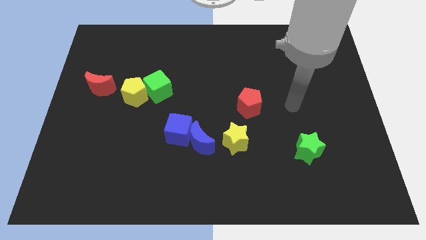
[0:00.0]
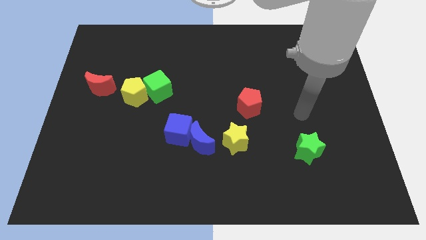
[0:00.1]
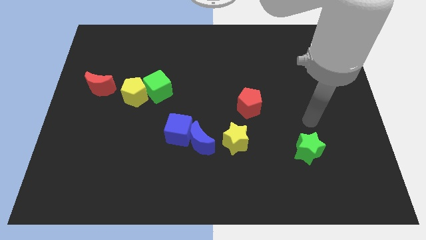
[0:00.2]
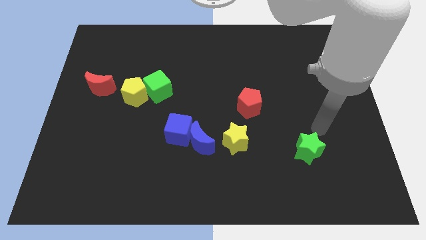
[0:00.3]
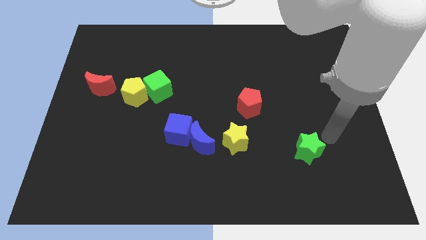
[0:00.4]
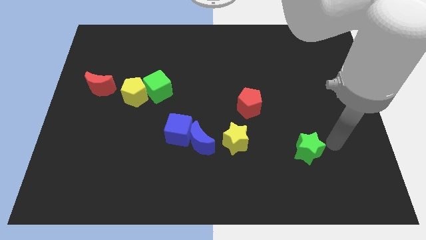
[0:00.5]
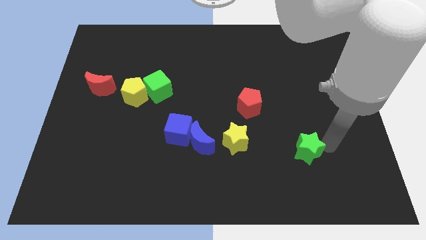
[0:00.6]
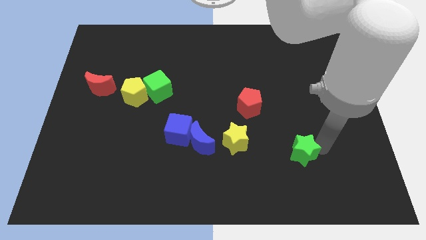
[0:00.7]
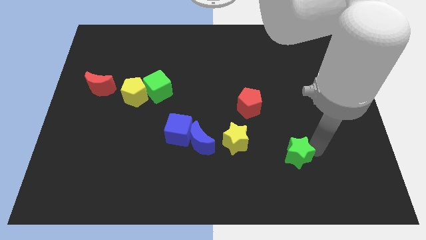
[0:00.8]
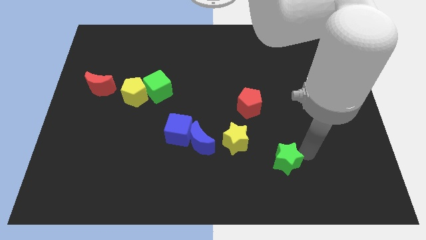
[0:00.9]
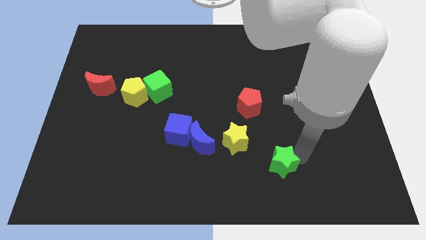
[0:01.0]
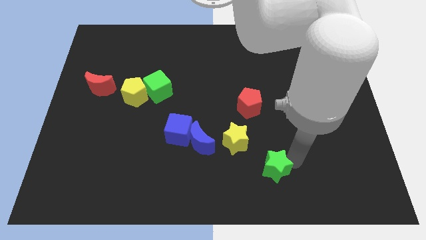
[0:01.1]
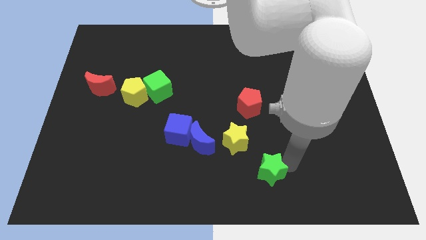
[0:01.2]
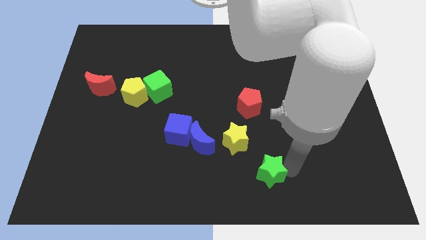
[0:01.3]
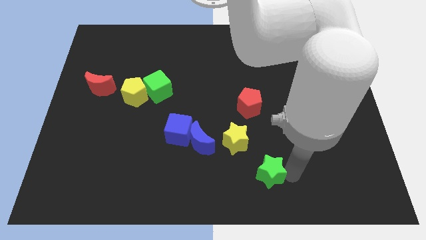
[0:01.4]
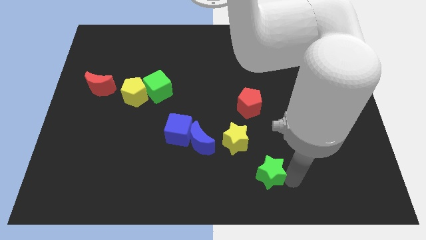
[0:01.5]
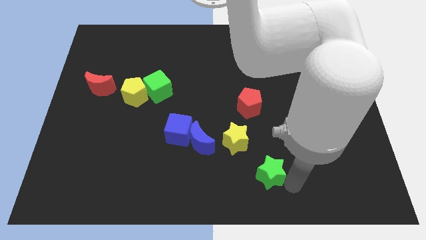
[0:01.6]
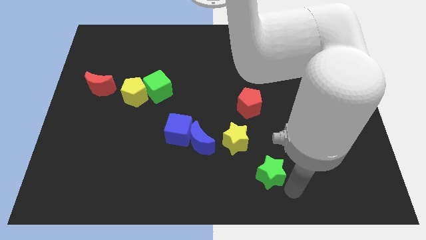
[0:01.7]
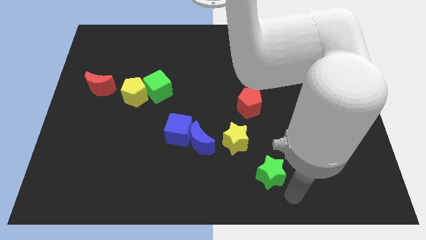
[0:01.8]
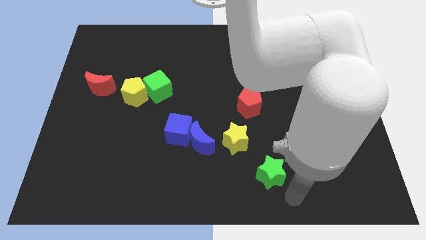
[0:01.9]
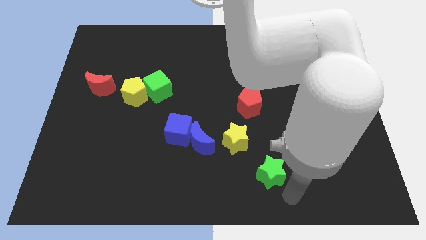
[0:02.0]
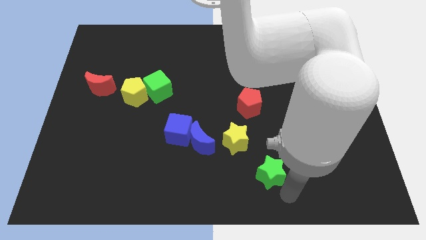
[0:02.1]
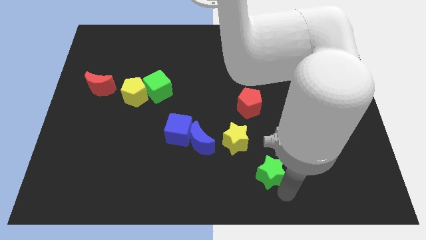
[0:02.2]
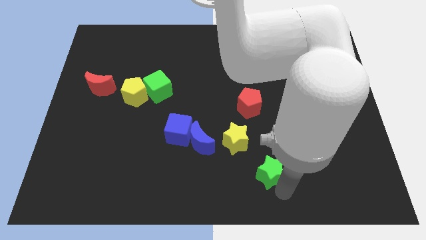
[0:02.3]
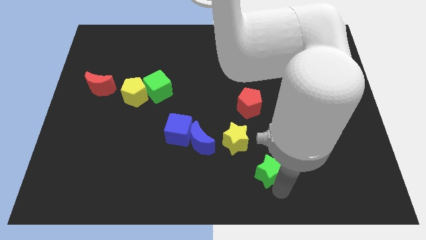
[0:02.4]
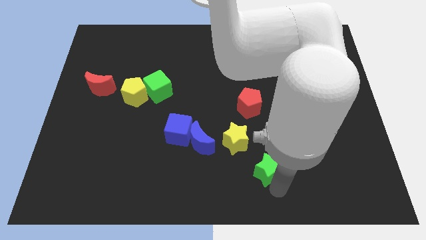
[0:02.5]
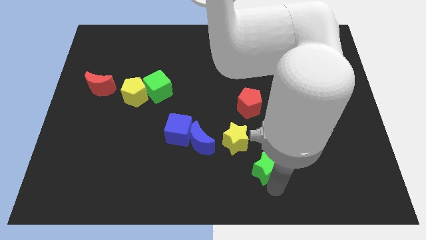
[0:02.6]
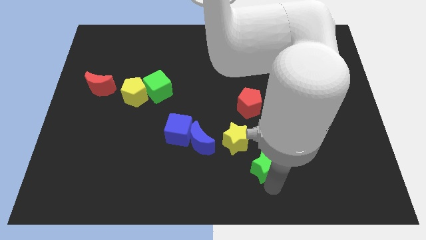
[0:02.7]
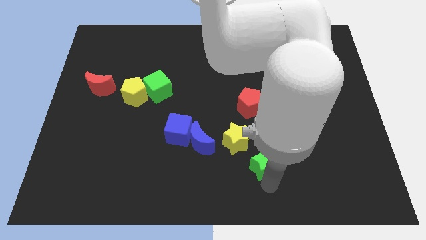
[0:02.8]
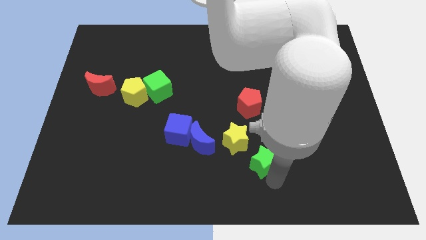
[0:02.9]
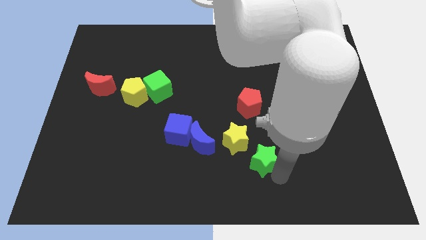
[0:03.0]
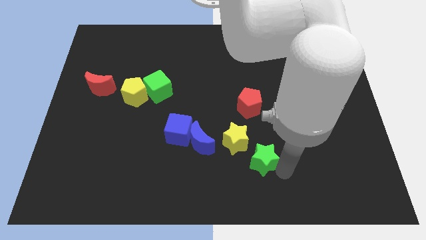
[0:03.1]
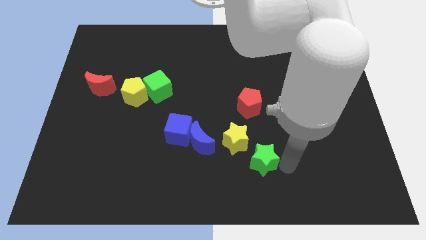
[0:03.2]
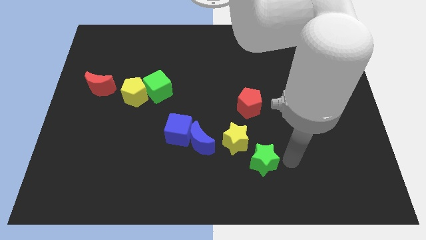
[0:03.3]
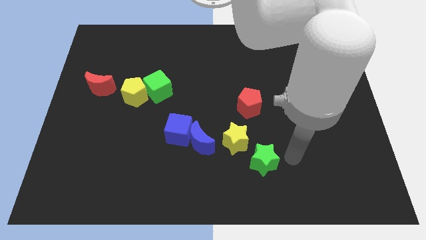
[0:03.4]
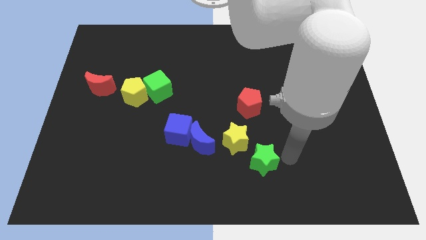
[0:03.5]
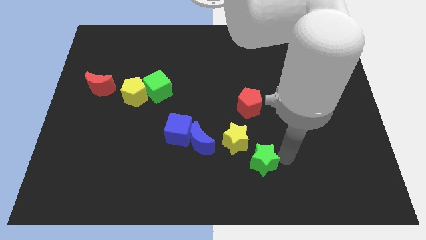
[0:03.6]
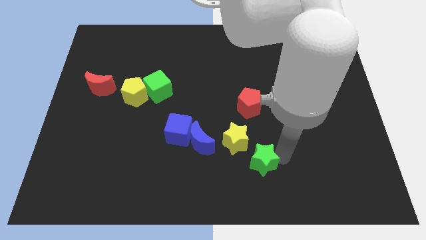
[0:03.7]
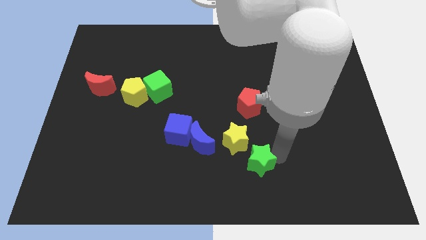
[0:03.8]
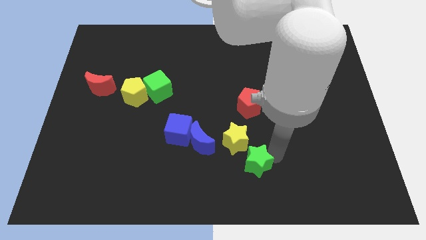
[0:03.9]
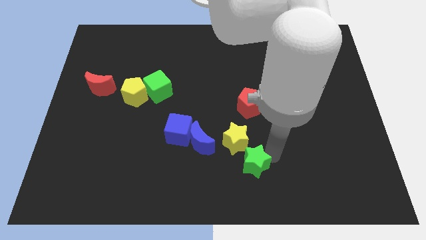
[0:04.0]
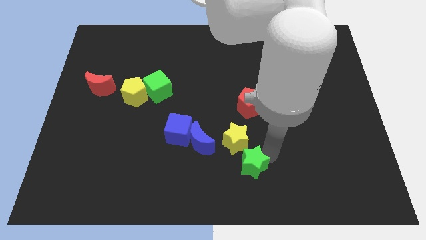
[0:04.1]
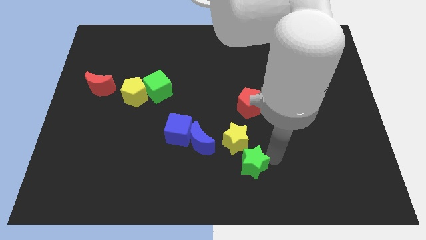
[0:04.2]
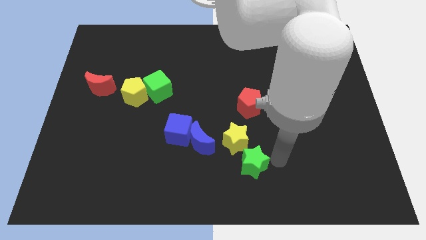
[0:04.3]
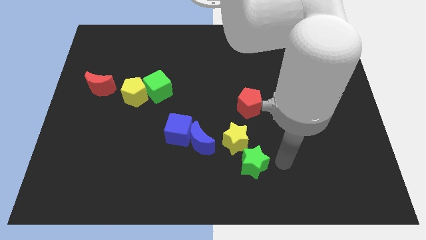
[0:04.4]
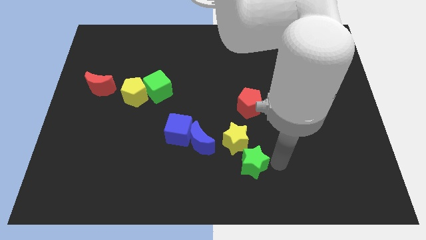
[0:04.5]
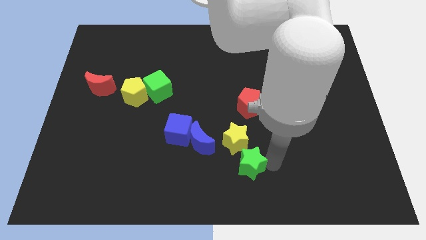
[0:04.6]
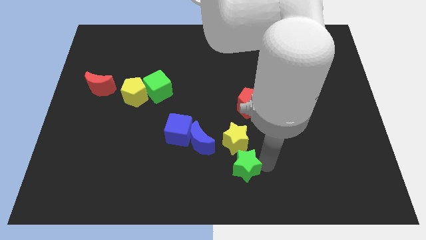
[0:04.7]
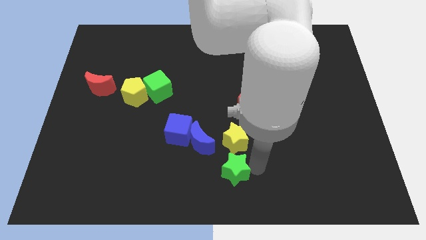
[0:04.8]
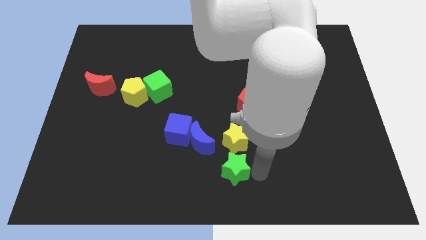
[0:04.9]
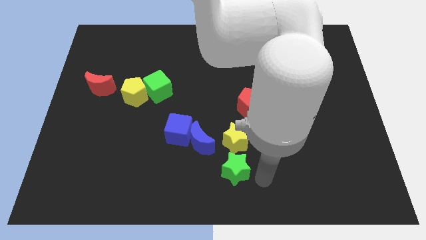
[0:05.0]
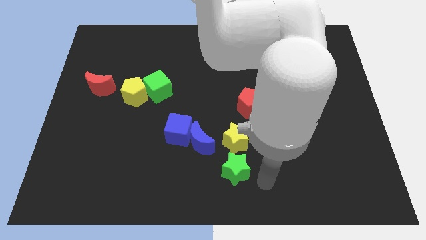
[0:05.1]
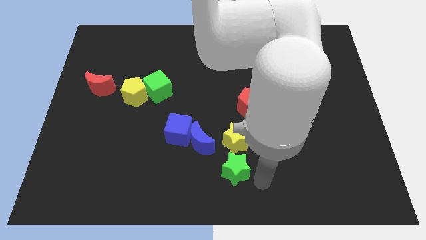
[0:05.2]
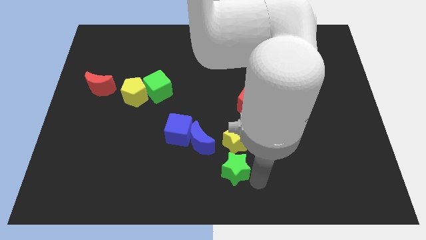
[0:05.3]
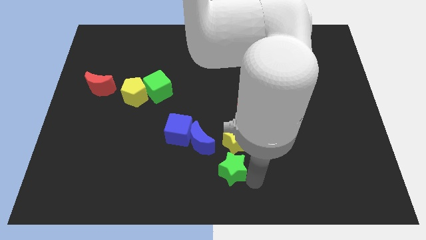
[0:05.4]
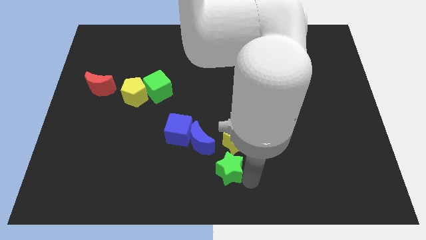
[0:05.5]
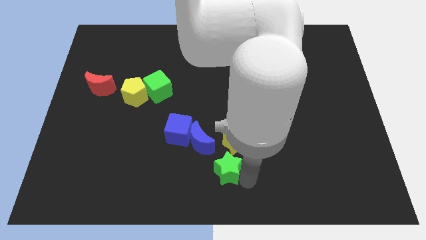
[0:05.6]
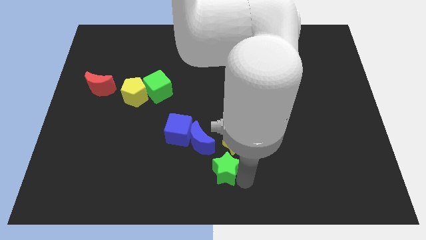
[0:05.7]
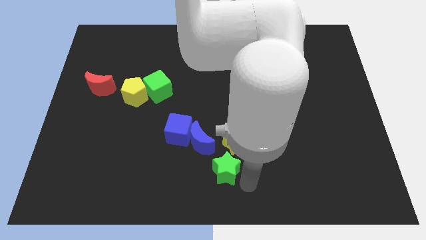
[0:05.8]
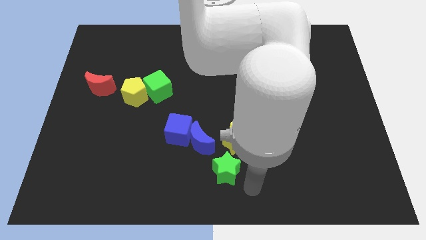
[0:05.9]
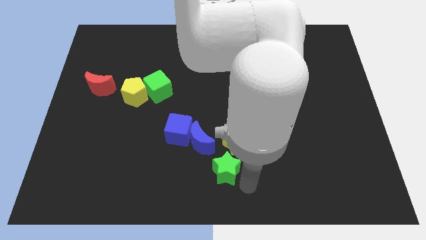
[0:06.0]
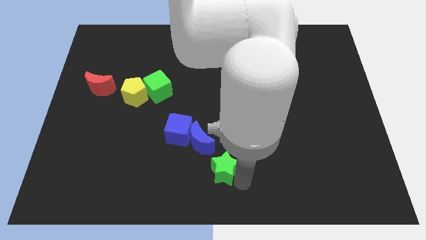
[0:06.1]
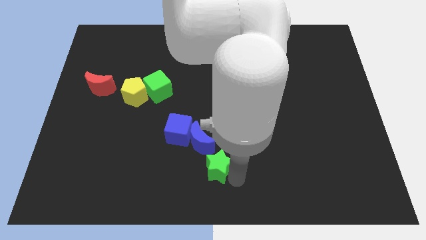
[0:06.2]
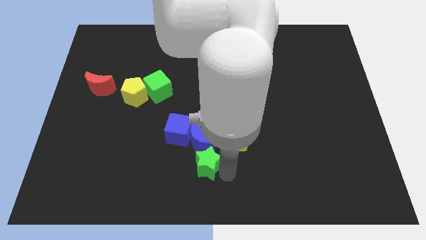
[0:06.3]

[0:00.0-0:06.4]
push the green star left

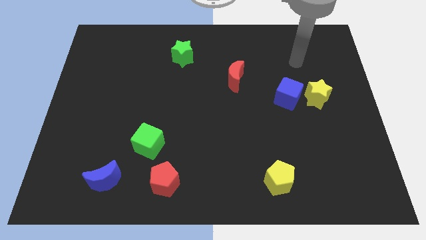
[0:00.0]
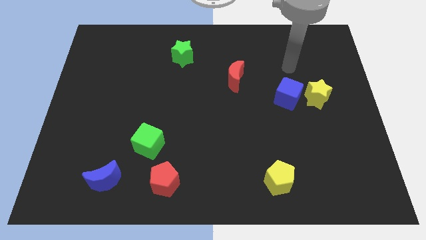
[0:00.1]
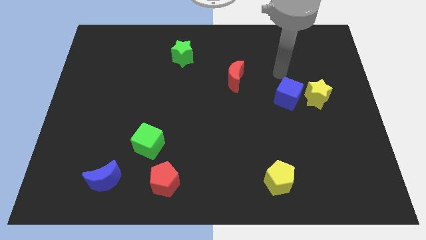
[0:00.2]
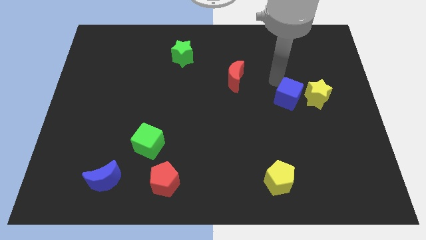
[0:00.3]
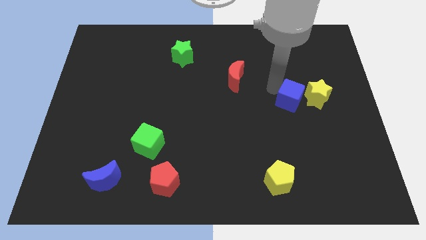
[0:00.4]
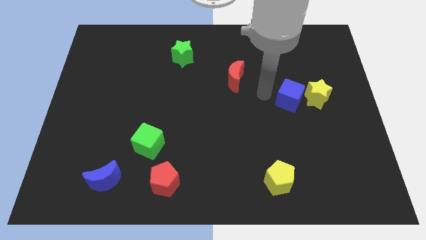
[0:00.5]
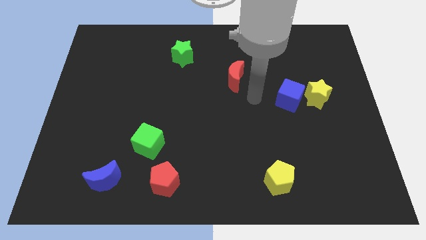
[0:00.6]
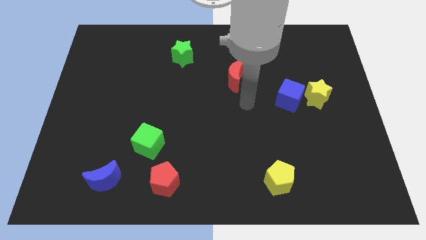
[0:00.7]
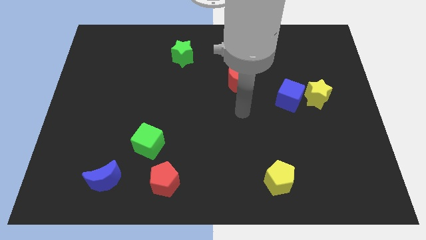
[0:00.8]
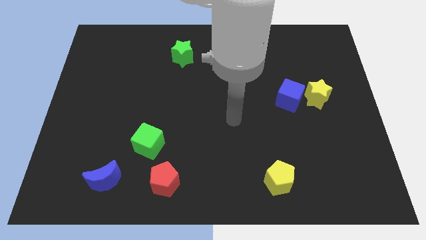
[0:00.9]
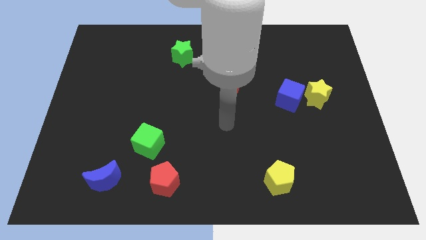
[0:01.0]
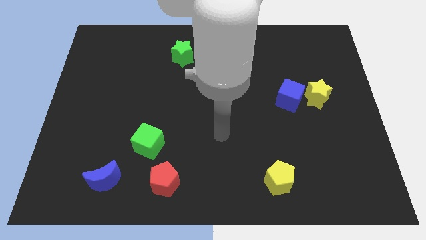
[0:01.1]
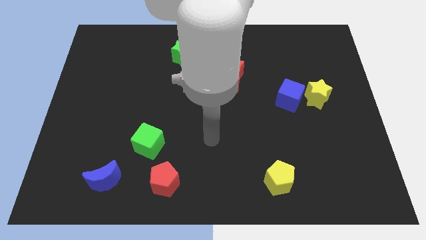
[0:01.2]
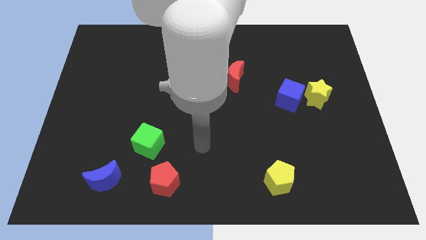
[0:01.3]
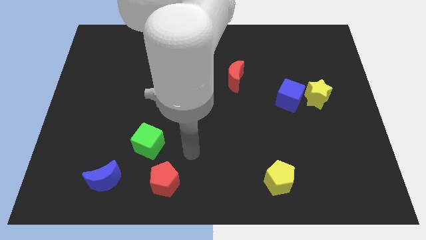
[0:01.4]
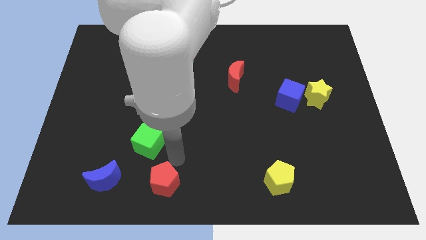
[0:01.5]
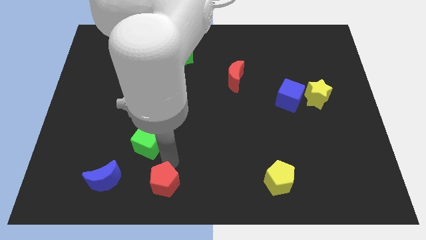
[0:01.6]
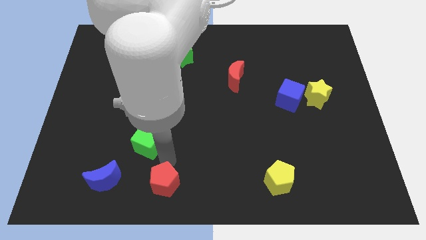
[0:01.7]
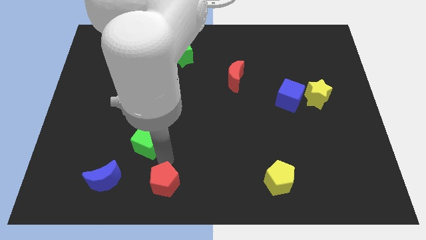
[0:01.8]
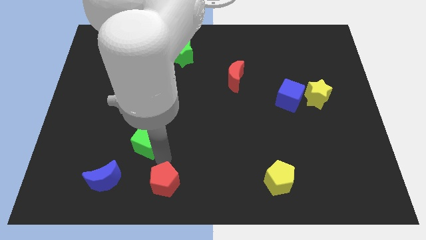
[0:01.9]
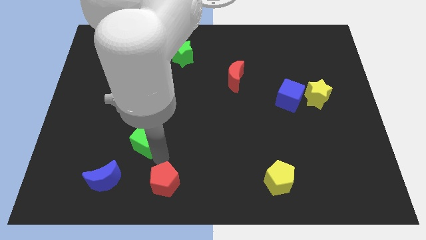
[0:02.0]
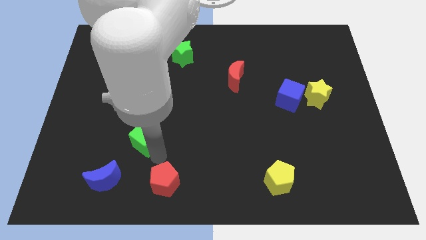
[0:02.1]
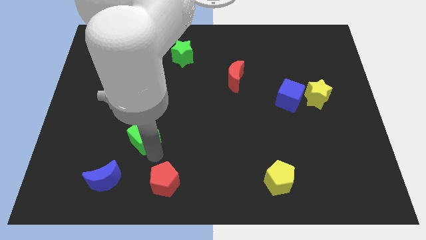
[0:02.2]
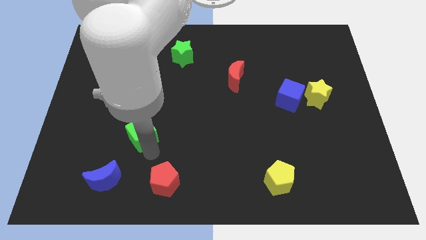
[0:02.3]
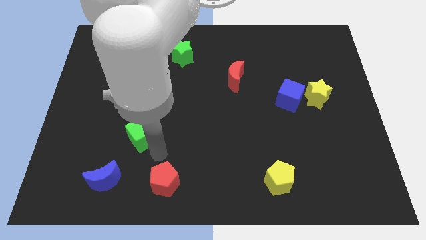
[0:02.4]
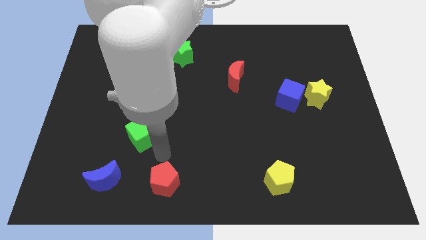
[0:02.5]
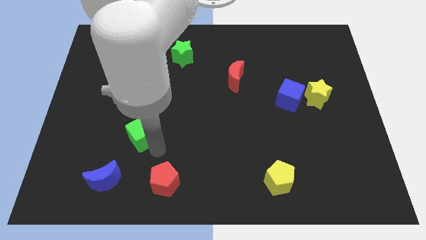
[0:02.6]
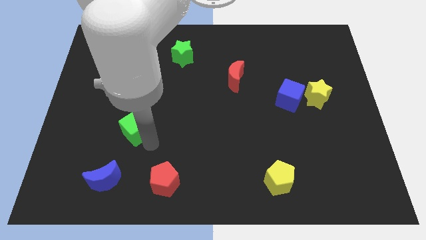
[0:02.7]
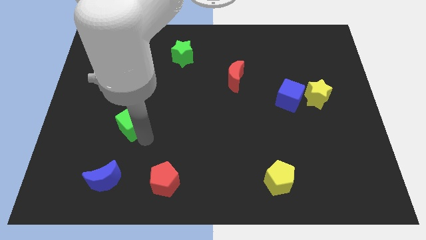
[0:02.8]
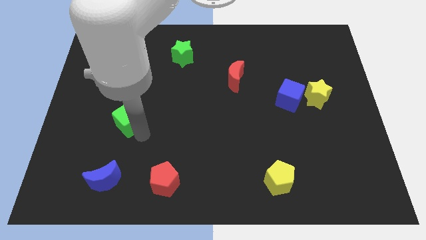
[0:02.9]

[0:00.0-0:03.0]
push the green cube a little bit up and left
